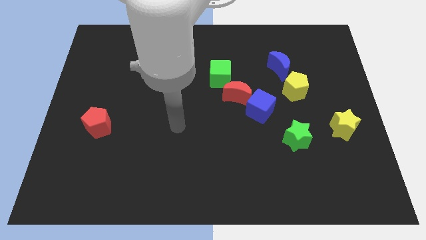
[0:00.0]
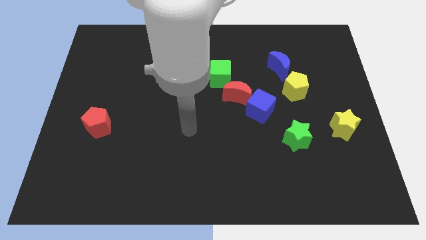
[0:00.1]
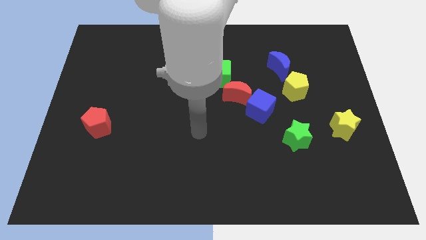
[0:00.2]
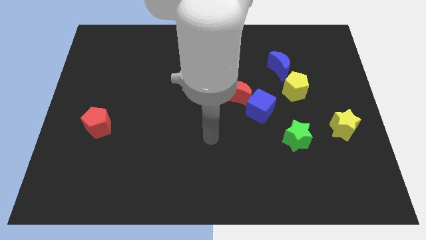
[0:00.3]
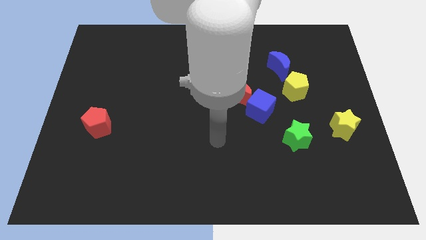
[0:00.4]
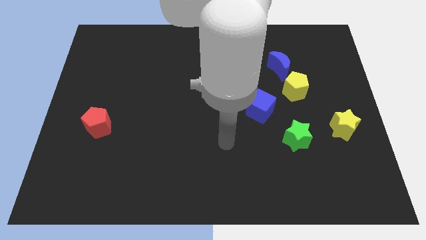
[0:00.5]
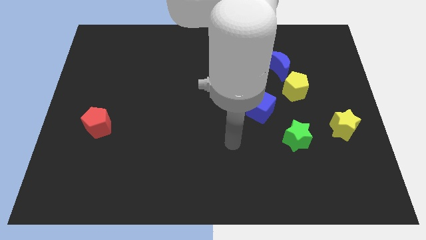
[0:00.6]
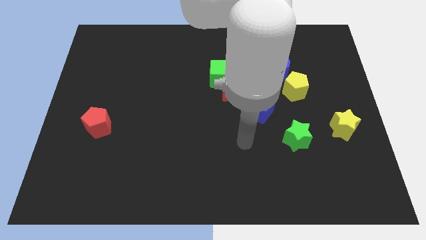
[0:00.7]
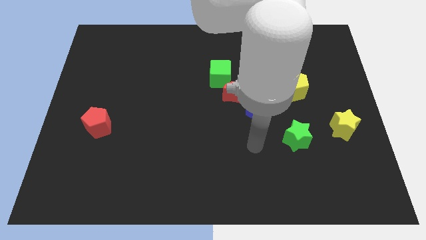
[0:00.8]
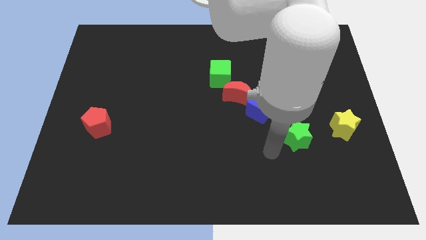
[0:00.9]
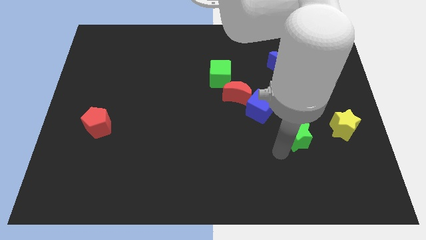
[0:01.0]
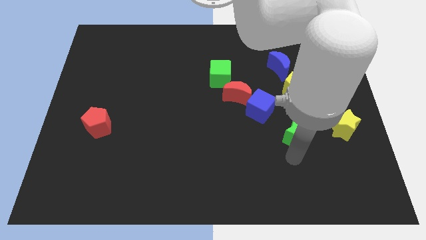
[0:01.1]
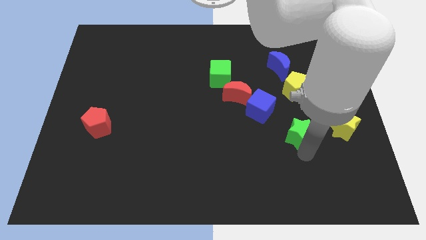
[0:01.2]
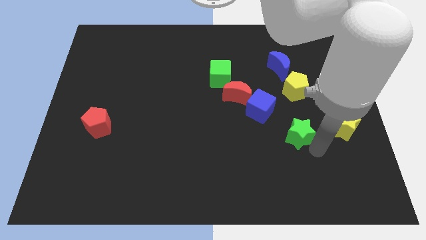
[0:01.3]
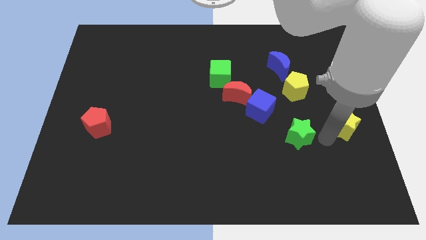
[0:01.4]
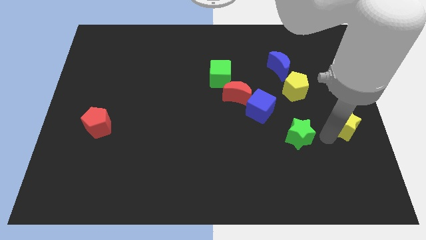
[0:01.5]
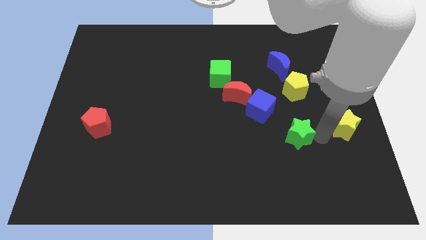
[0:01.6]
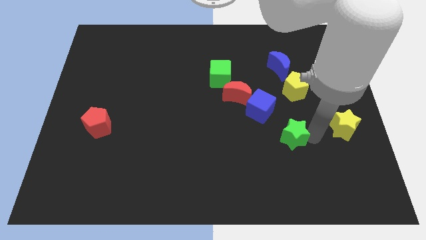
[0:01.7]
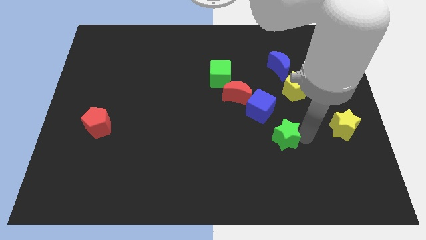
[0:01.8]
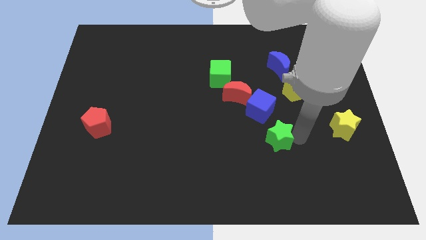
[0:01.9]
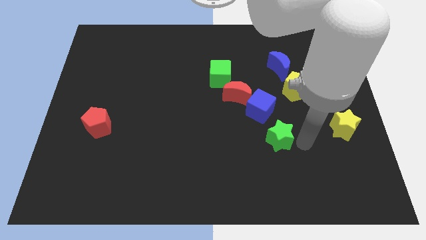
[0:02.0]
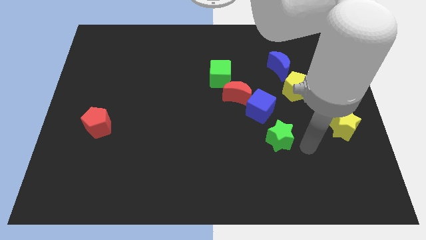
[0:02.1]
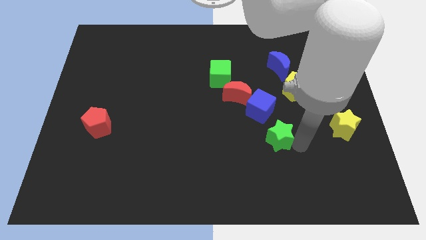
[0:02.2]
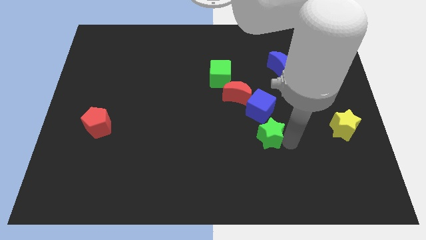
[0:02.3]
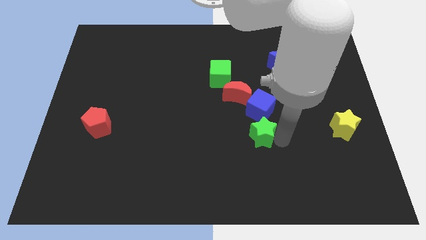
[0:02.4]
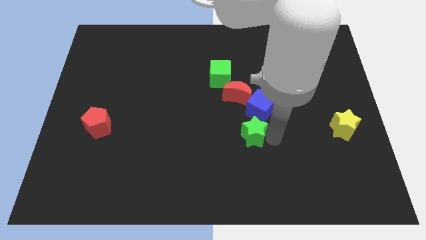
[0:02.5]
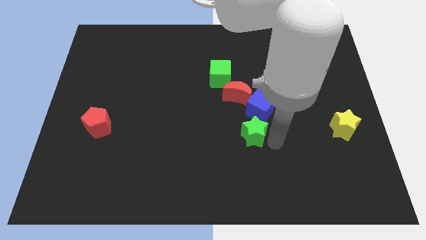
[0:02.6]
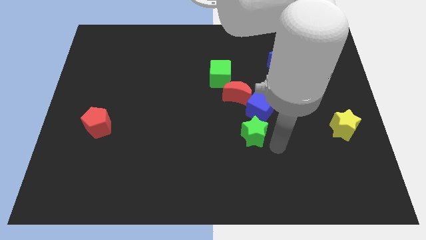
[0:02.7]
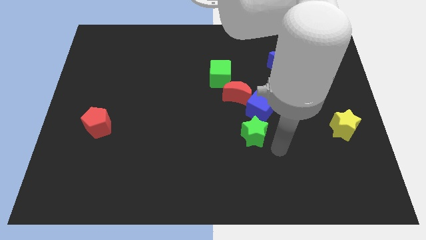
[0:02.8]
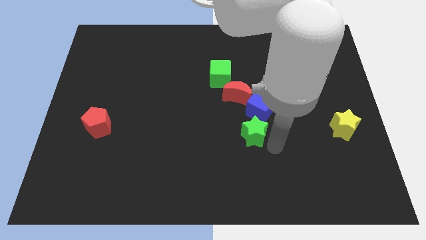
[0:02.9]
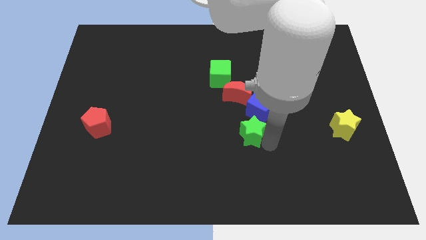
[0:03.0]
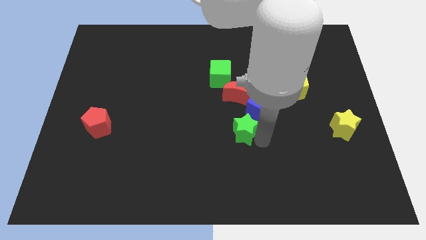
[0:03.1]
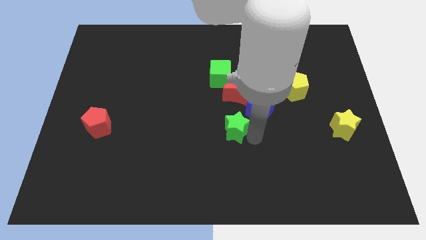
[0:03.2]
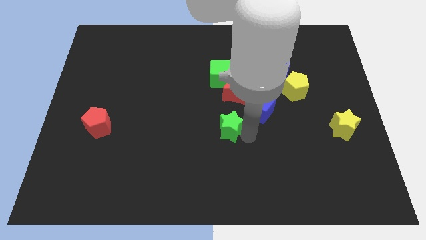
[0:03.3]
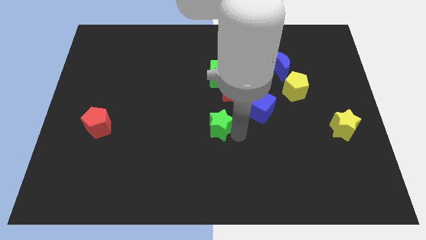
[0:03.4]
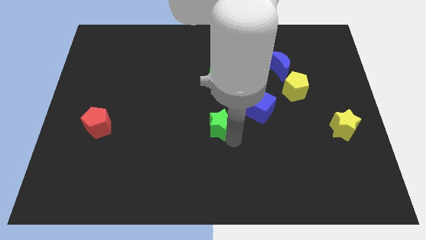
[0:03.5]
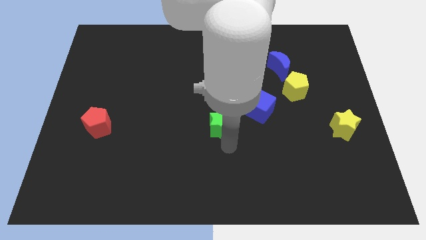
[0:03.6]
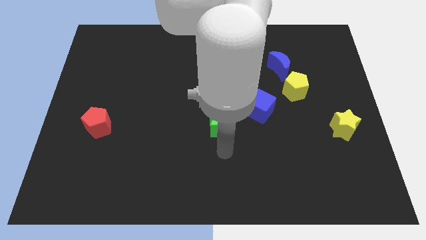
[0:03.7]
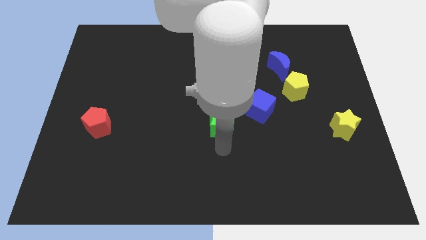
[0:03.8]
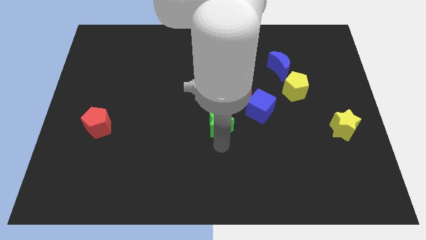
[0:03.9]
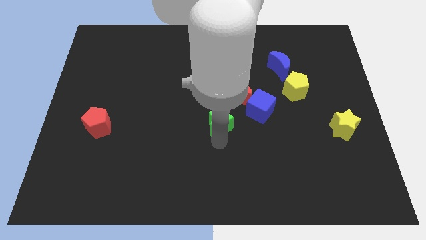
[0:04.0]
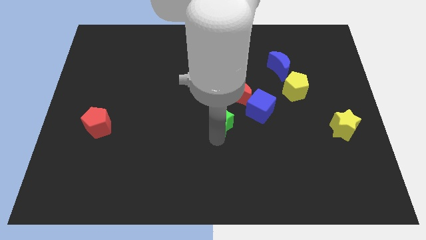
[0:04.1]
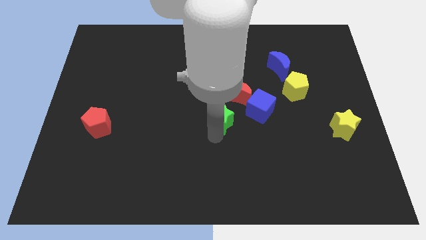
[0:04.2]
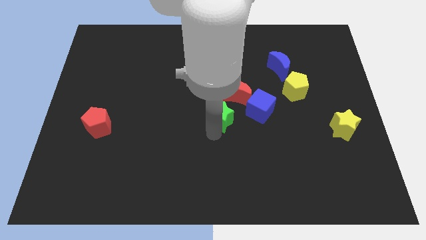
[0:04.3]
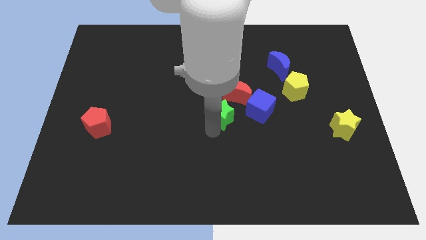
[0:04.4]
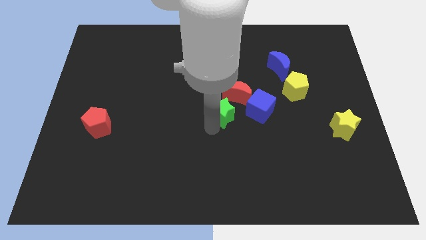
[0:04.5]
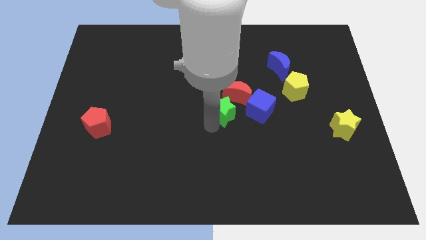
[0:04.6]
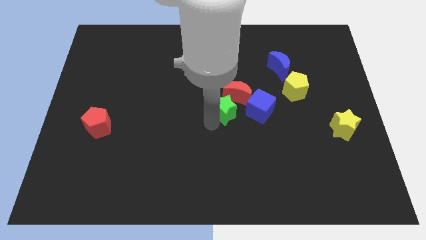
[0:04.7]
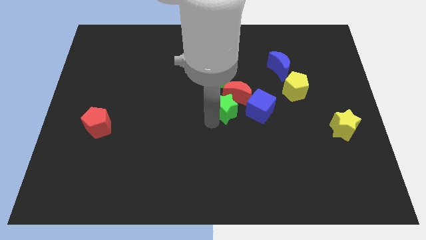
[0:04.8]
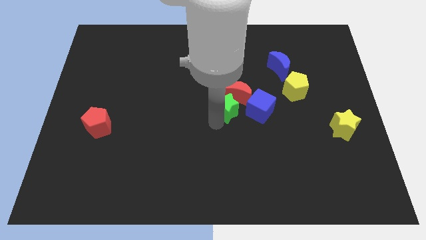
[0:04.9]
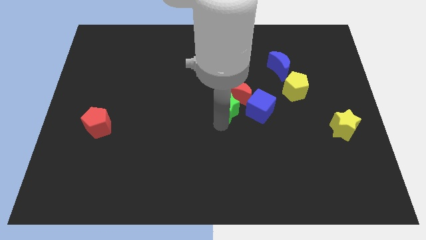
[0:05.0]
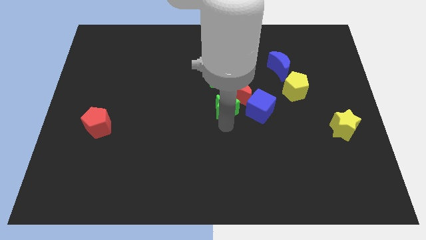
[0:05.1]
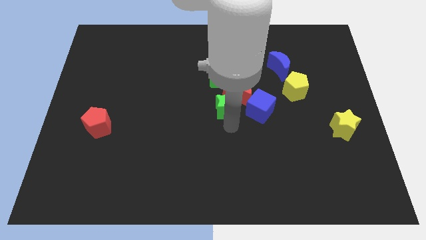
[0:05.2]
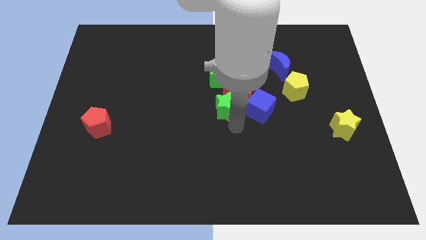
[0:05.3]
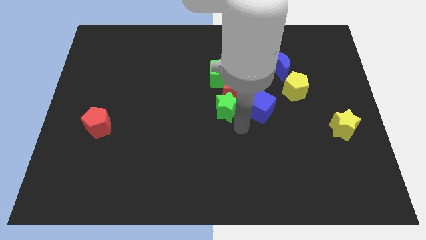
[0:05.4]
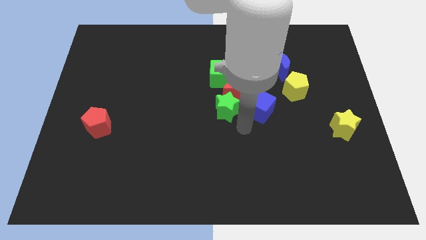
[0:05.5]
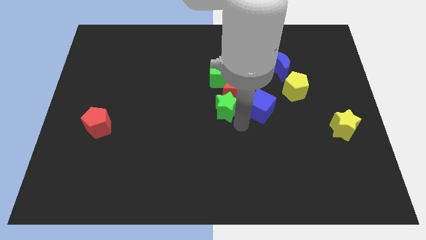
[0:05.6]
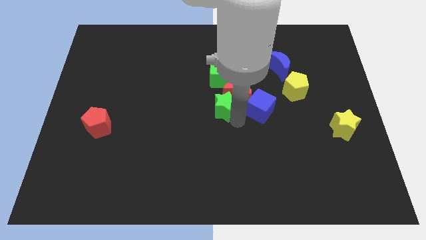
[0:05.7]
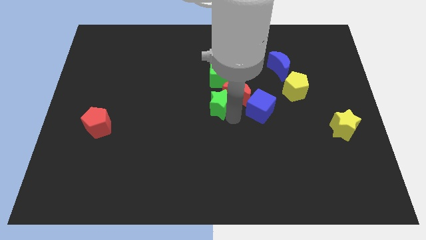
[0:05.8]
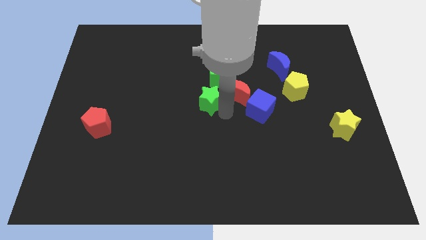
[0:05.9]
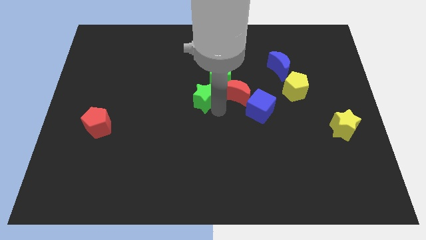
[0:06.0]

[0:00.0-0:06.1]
move the green star up and then left

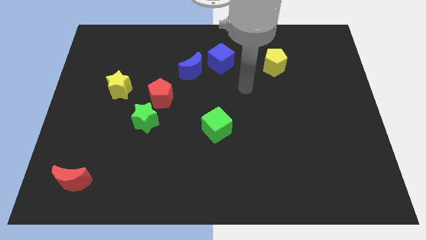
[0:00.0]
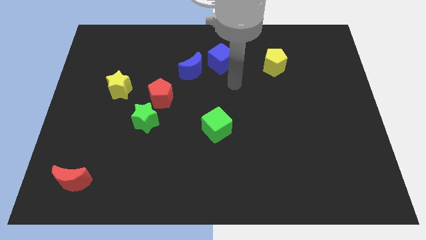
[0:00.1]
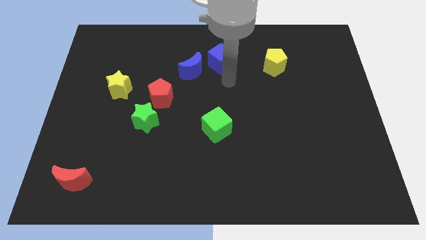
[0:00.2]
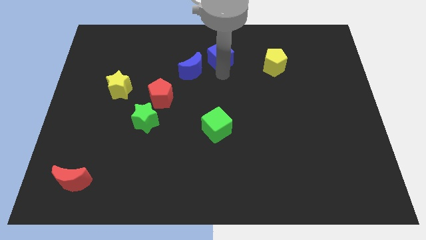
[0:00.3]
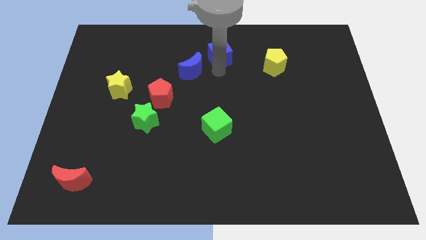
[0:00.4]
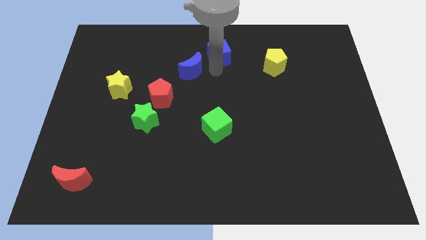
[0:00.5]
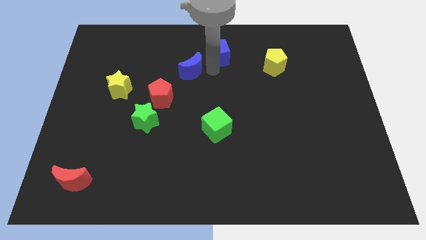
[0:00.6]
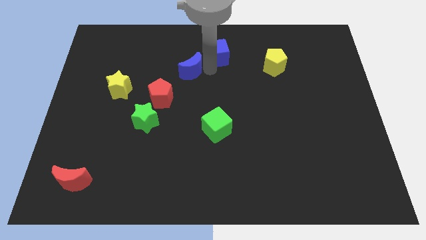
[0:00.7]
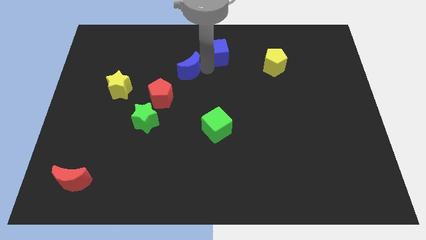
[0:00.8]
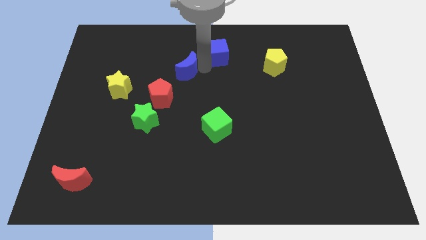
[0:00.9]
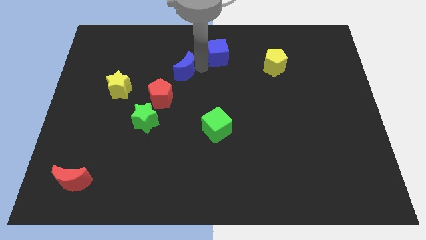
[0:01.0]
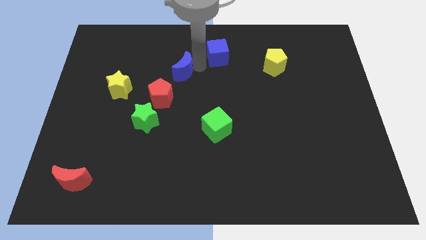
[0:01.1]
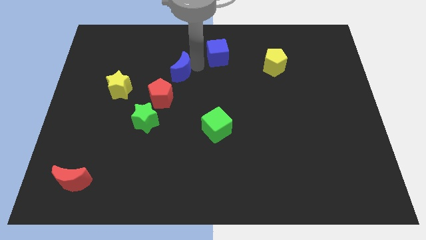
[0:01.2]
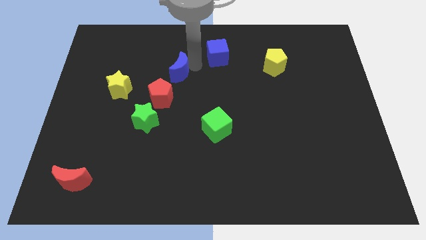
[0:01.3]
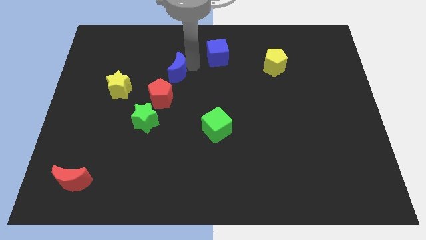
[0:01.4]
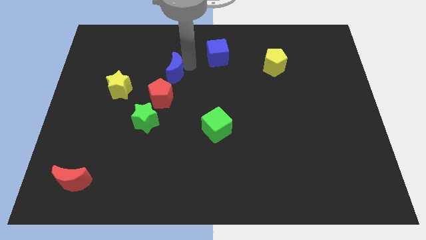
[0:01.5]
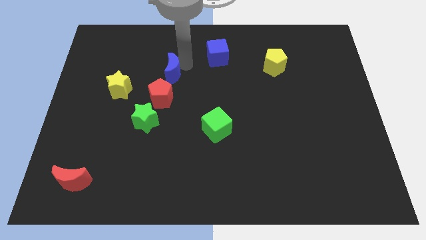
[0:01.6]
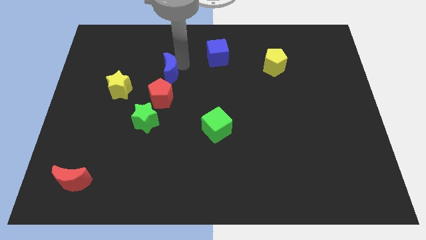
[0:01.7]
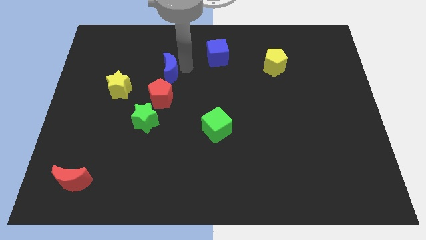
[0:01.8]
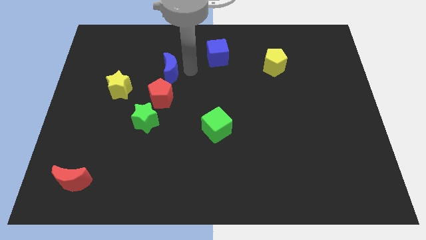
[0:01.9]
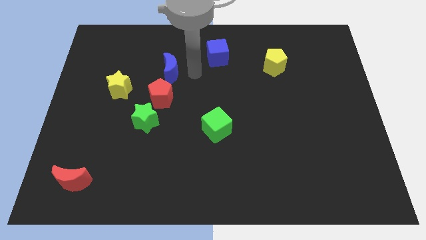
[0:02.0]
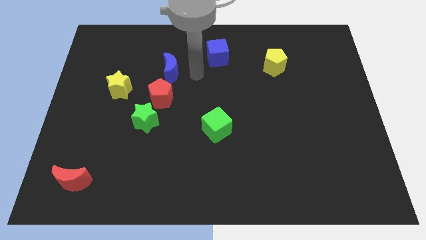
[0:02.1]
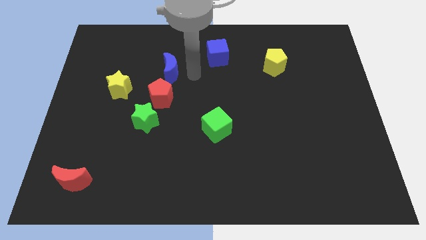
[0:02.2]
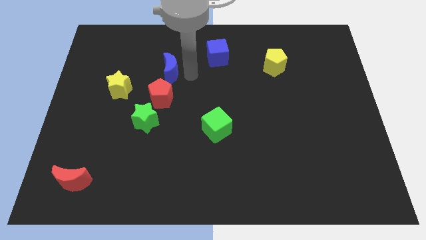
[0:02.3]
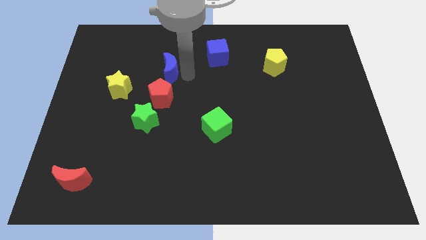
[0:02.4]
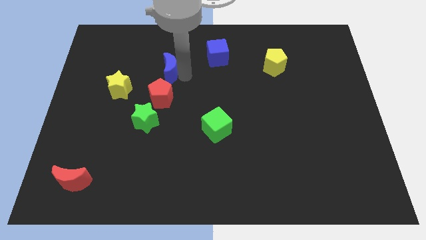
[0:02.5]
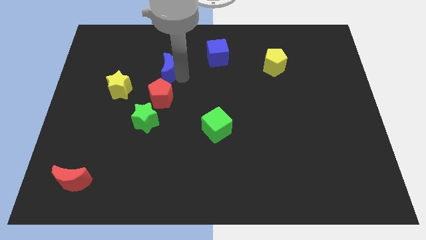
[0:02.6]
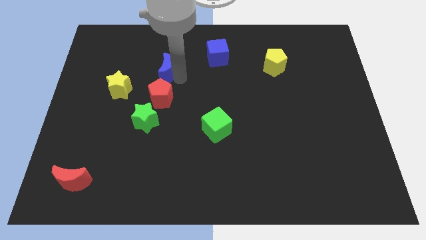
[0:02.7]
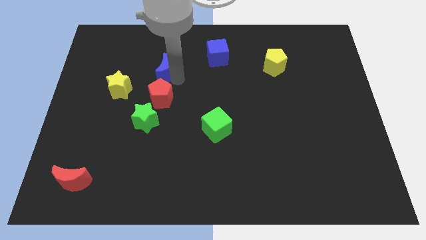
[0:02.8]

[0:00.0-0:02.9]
slightly push the blue moon to the left
